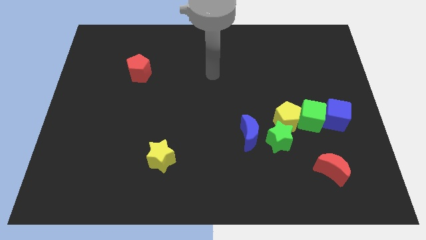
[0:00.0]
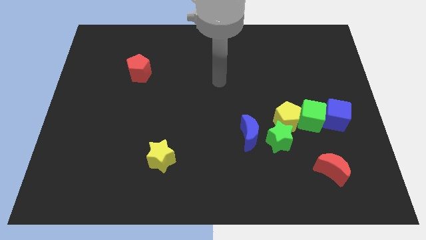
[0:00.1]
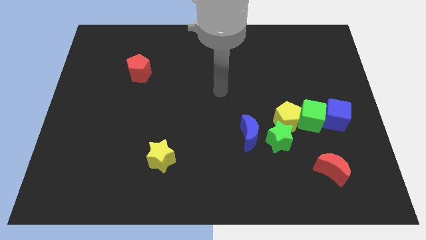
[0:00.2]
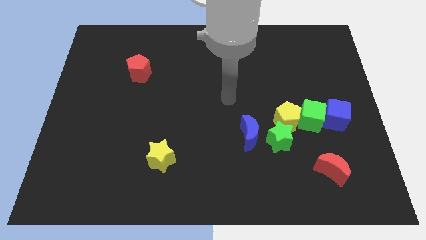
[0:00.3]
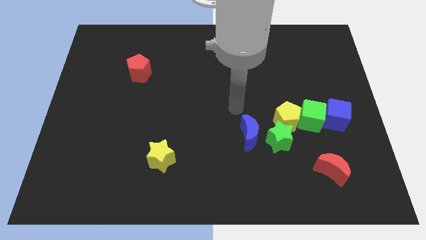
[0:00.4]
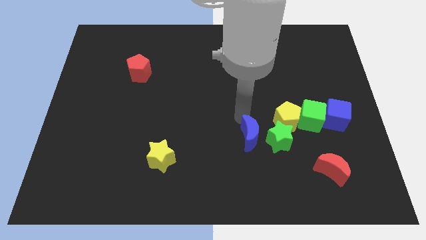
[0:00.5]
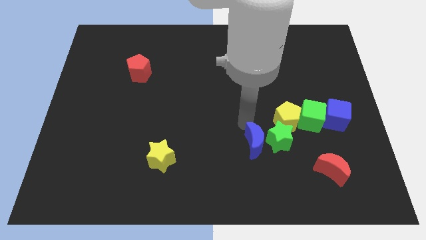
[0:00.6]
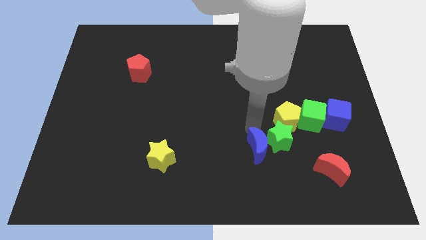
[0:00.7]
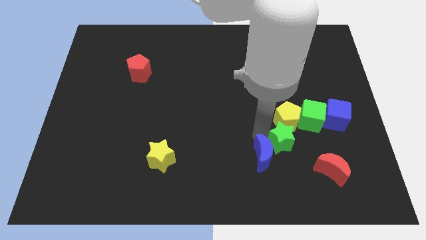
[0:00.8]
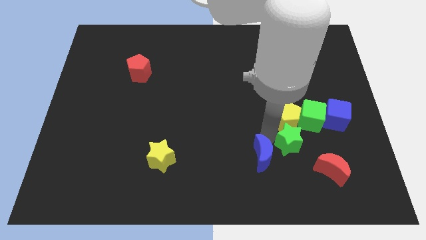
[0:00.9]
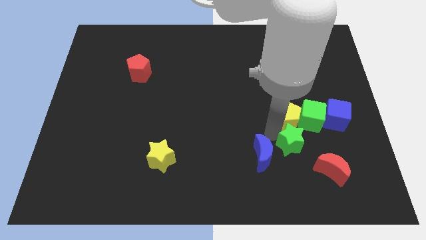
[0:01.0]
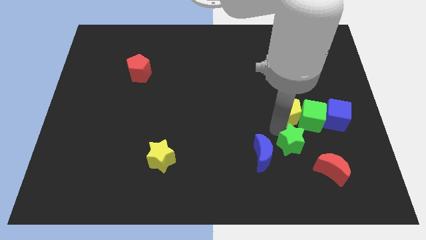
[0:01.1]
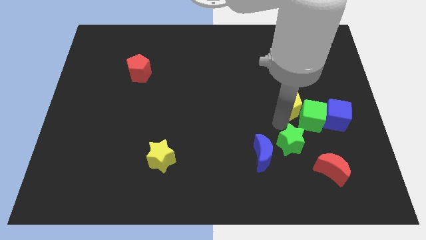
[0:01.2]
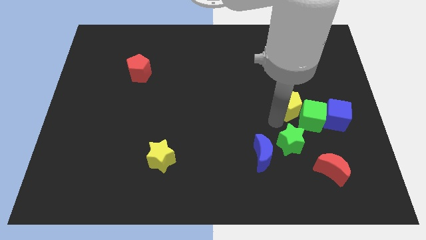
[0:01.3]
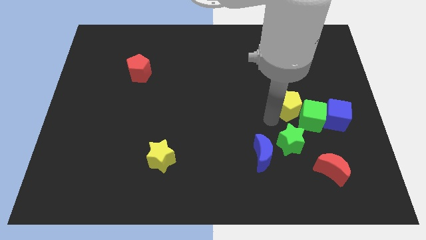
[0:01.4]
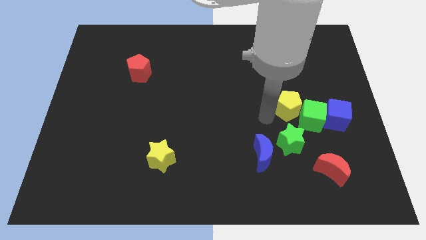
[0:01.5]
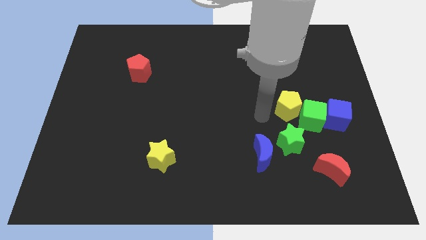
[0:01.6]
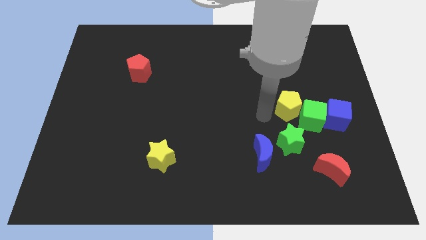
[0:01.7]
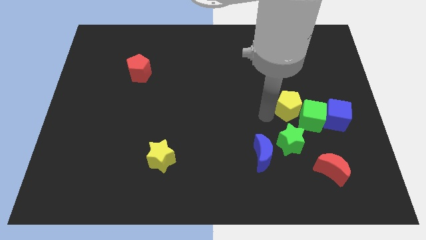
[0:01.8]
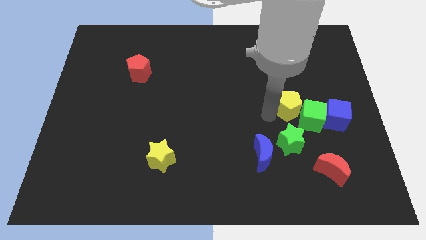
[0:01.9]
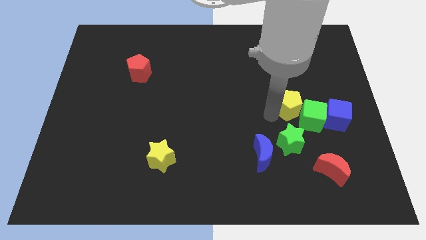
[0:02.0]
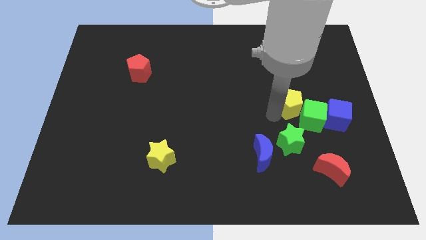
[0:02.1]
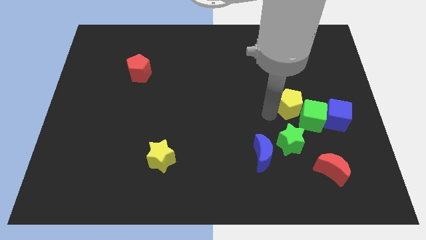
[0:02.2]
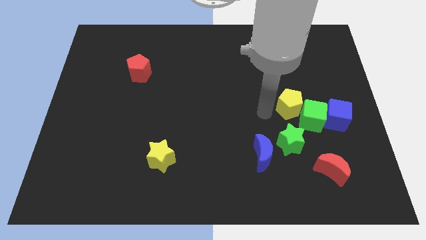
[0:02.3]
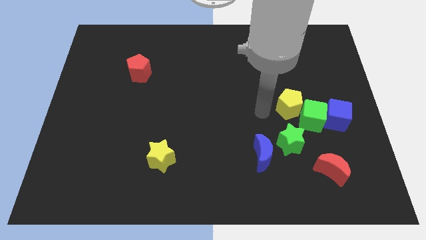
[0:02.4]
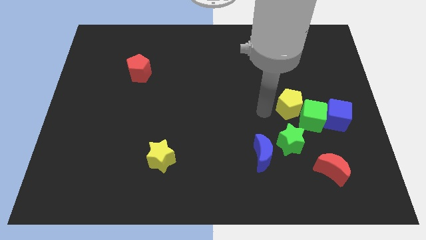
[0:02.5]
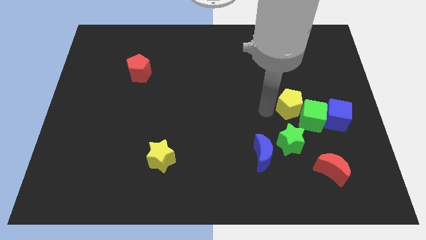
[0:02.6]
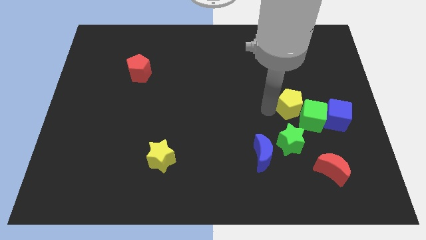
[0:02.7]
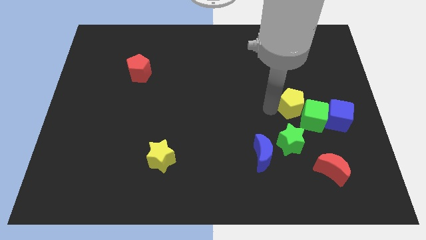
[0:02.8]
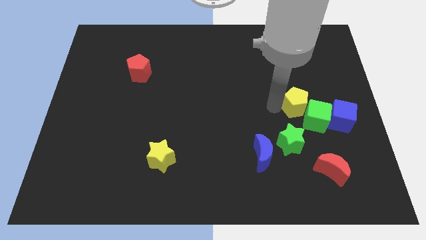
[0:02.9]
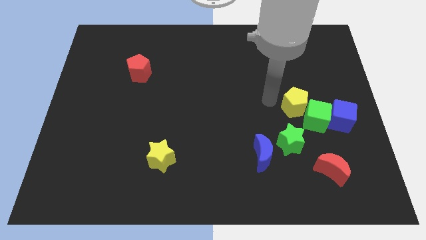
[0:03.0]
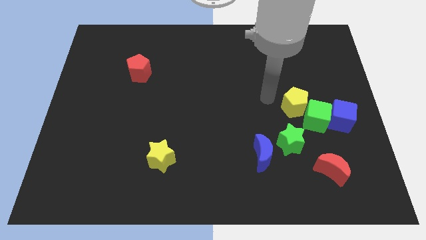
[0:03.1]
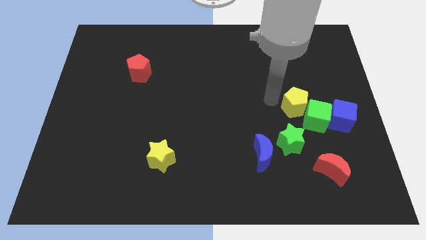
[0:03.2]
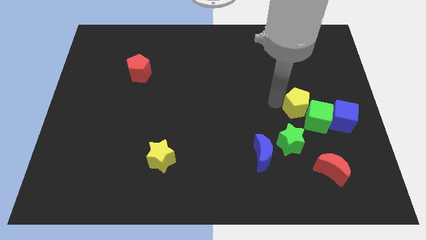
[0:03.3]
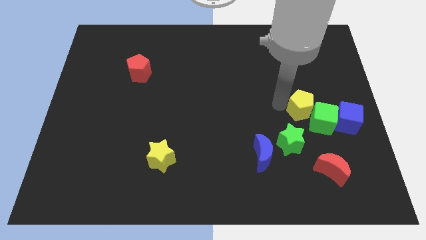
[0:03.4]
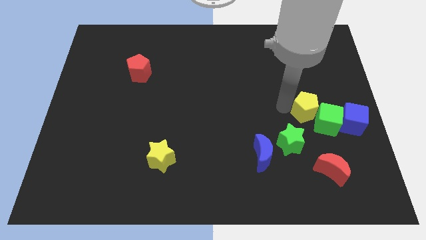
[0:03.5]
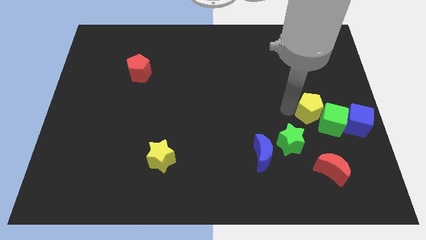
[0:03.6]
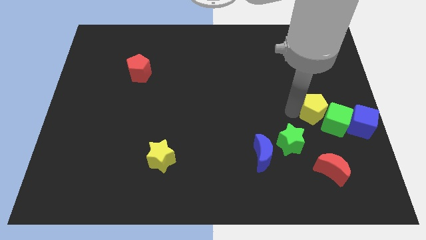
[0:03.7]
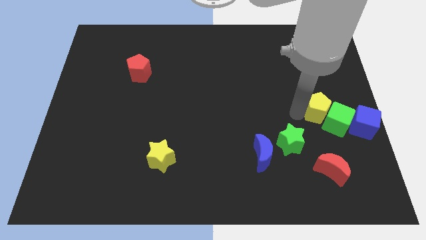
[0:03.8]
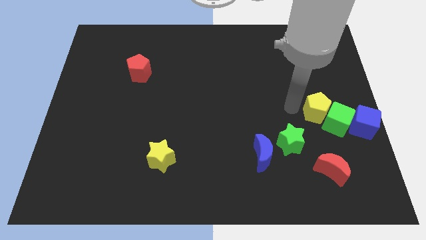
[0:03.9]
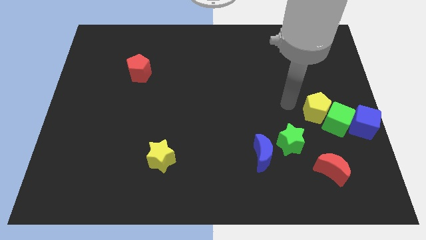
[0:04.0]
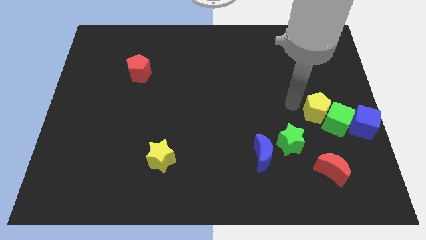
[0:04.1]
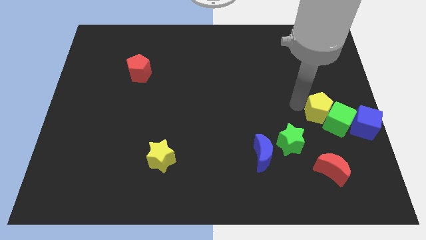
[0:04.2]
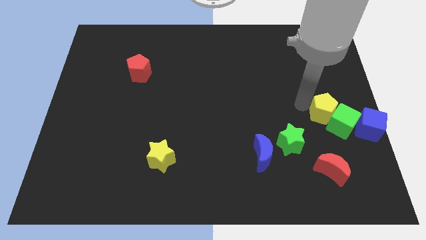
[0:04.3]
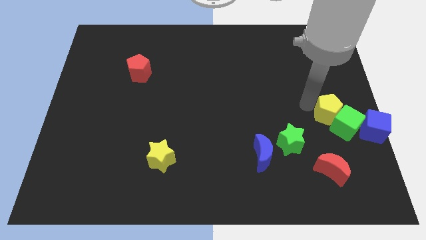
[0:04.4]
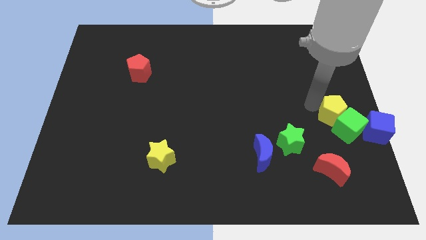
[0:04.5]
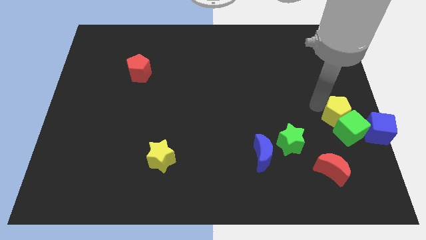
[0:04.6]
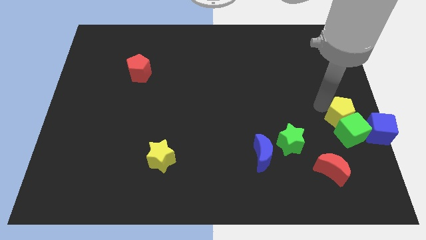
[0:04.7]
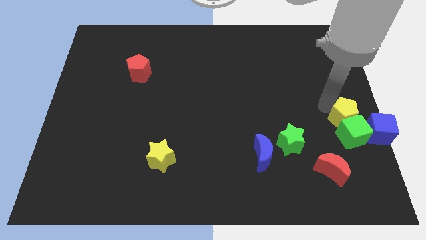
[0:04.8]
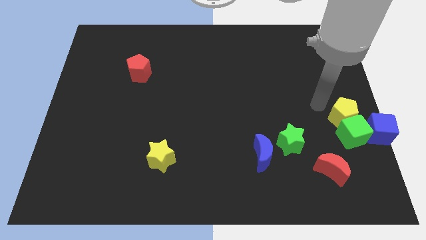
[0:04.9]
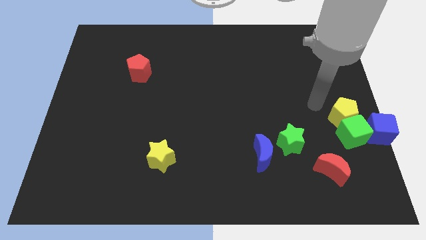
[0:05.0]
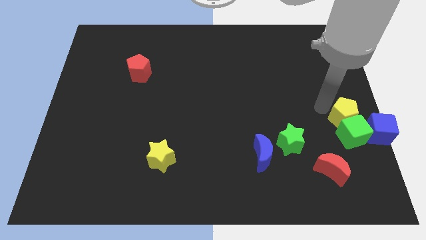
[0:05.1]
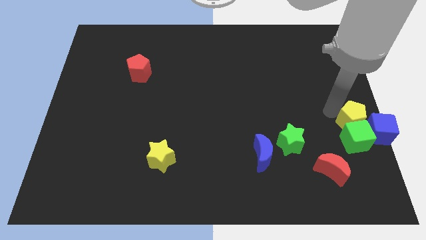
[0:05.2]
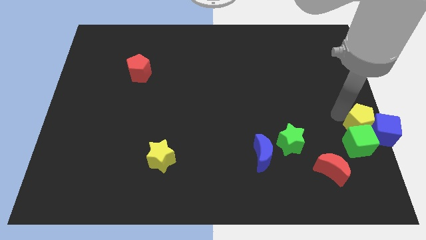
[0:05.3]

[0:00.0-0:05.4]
slide the yellow pentagon towards the blue cube

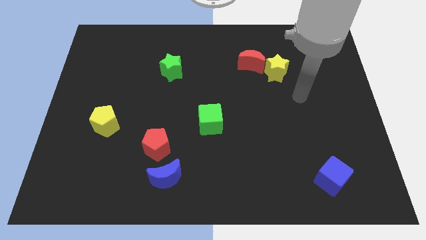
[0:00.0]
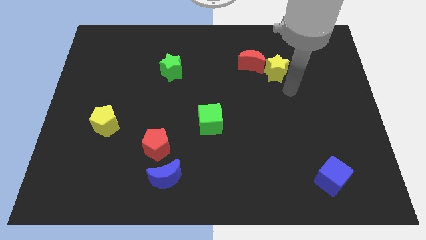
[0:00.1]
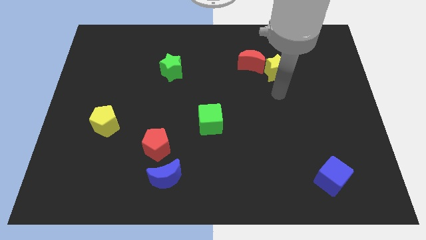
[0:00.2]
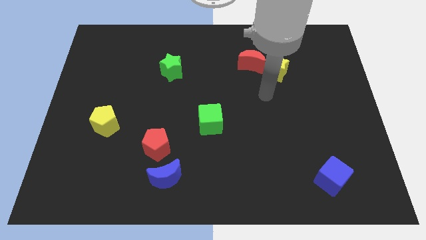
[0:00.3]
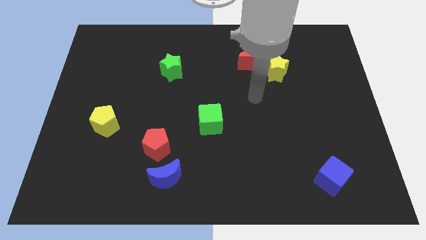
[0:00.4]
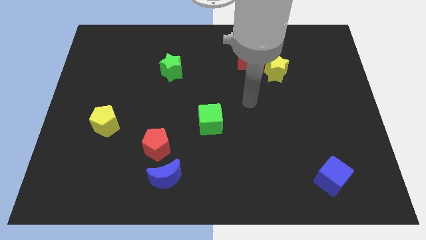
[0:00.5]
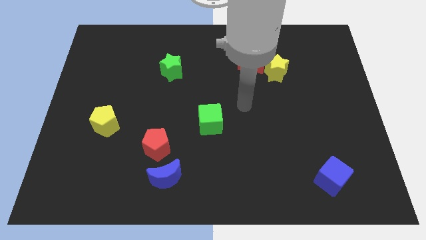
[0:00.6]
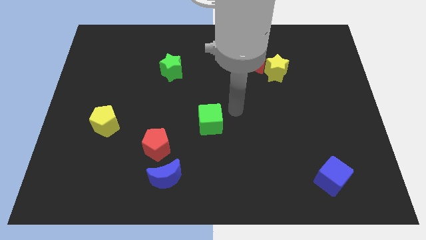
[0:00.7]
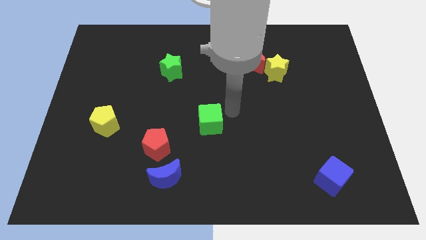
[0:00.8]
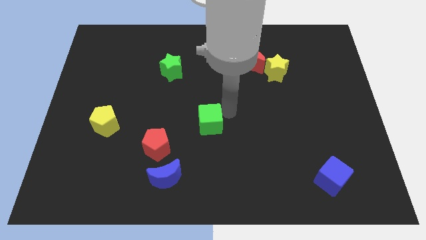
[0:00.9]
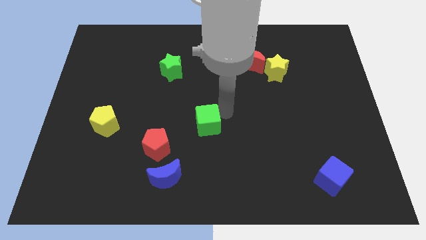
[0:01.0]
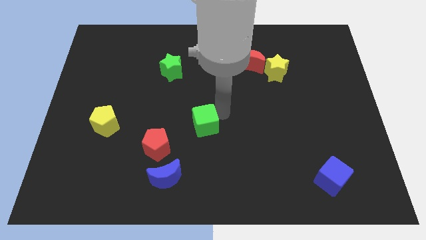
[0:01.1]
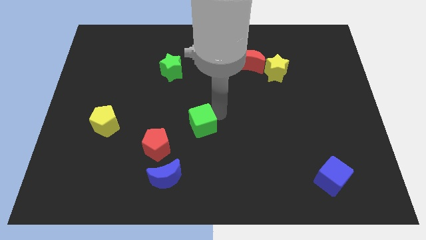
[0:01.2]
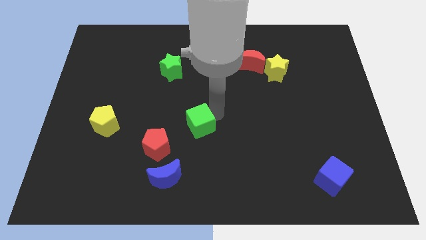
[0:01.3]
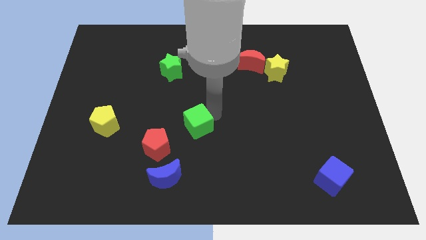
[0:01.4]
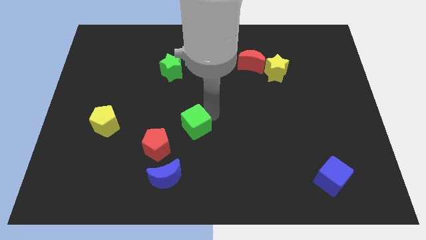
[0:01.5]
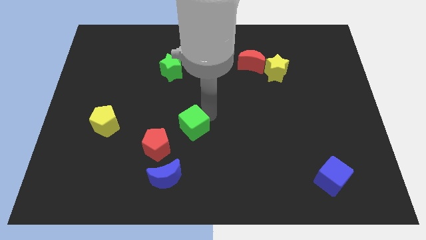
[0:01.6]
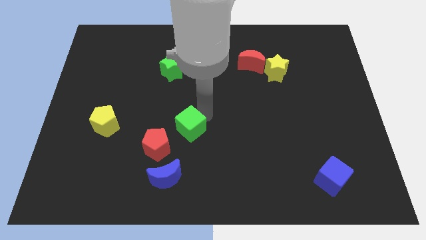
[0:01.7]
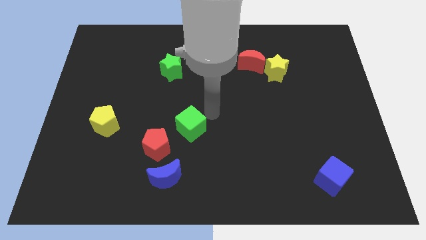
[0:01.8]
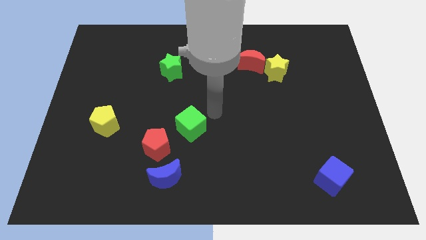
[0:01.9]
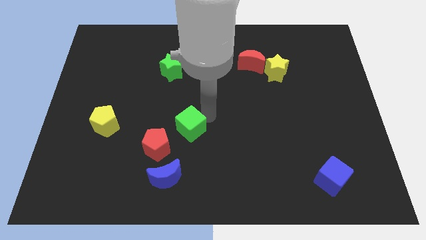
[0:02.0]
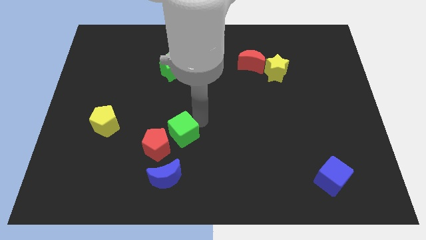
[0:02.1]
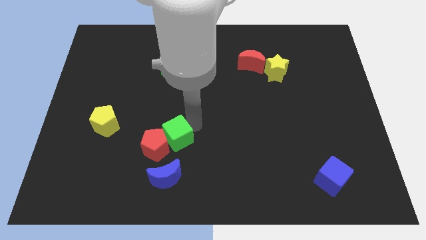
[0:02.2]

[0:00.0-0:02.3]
move the green cube close to the red pentagon
